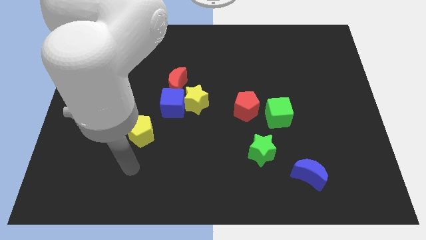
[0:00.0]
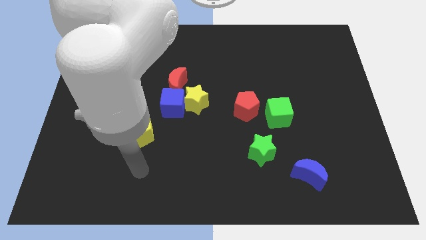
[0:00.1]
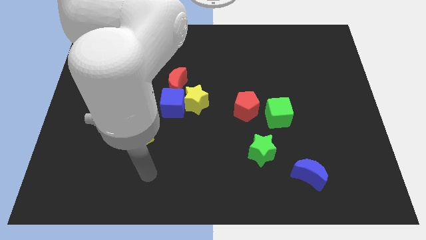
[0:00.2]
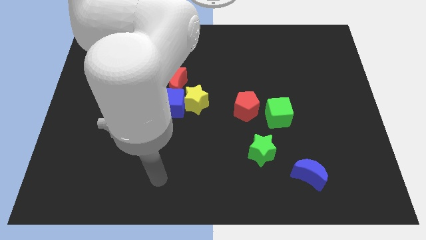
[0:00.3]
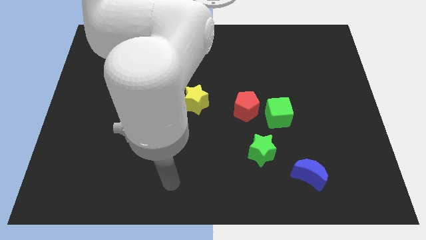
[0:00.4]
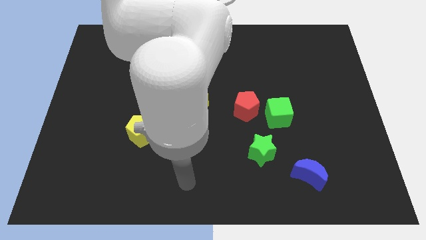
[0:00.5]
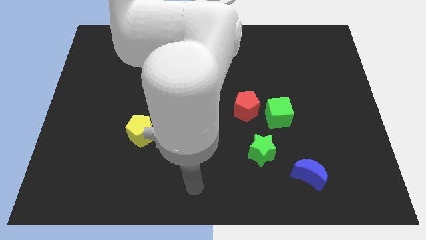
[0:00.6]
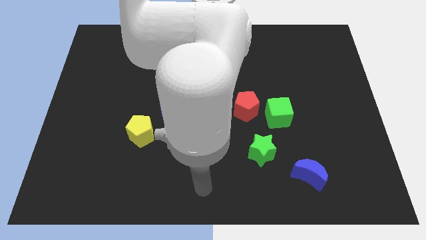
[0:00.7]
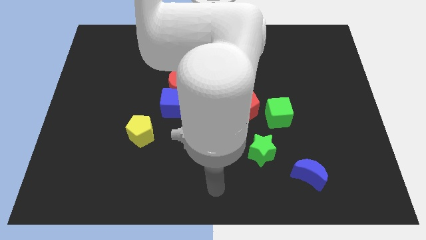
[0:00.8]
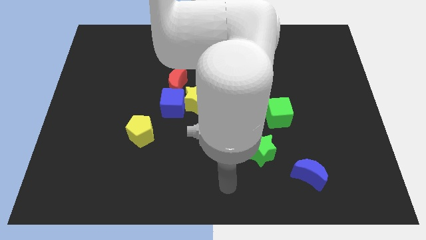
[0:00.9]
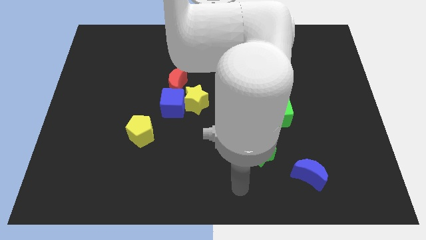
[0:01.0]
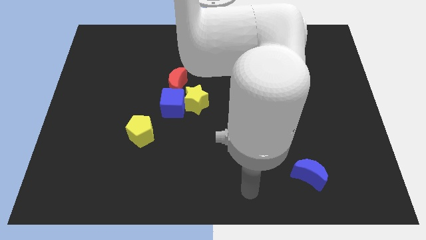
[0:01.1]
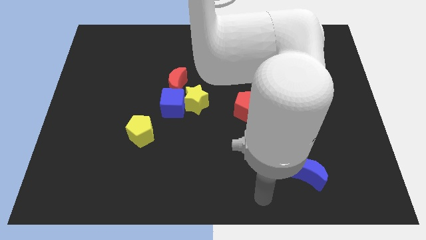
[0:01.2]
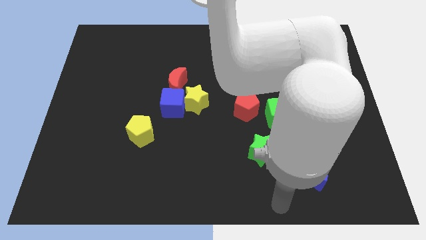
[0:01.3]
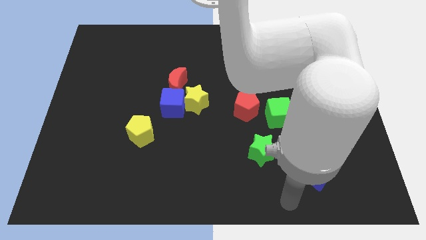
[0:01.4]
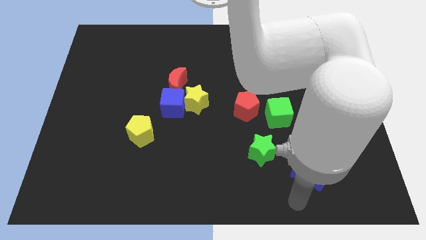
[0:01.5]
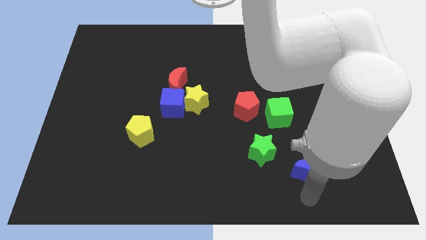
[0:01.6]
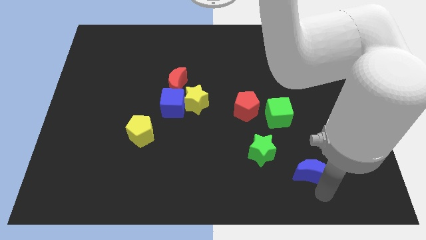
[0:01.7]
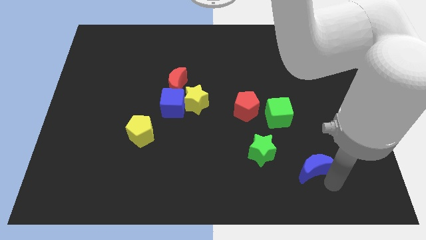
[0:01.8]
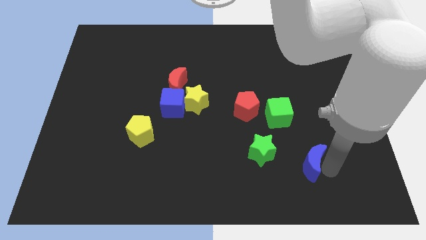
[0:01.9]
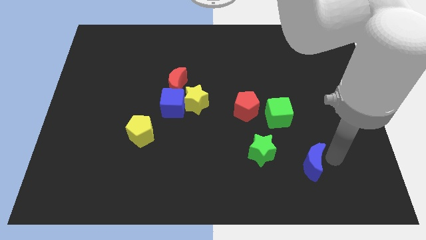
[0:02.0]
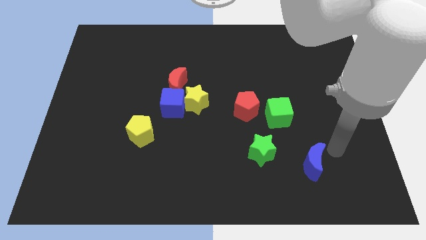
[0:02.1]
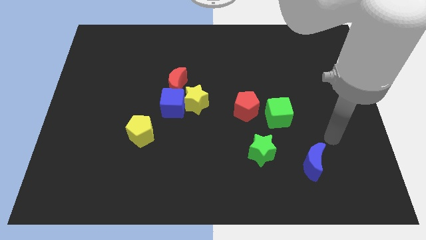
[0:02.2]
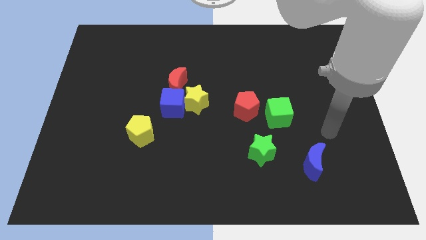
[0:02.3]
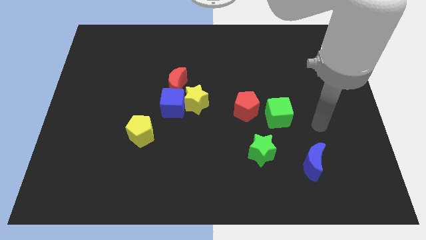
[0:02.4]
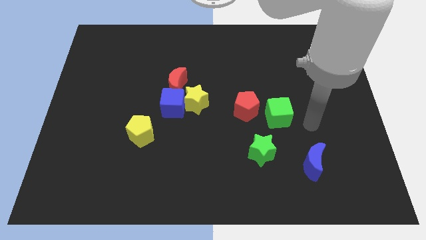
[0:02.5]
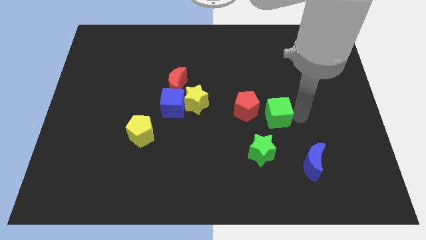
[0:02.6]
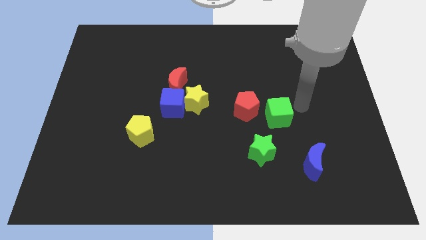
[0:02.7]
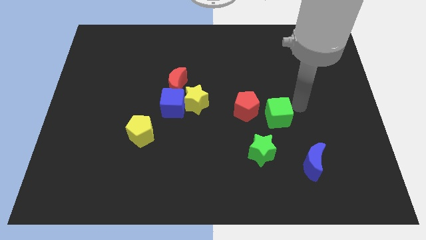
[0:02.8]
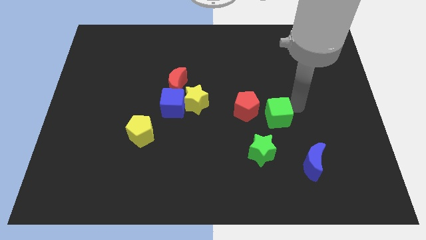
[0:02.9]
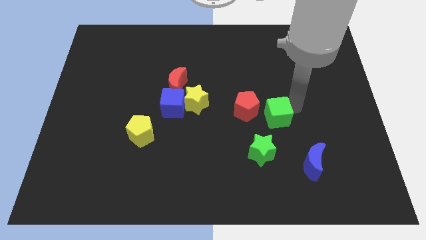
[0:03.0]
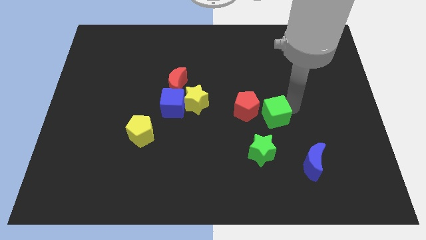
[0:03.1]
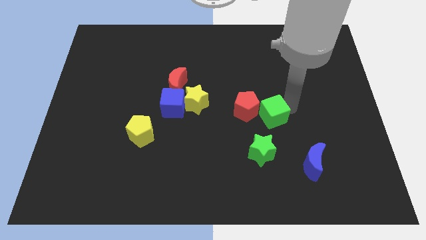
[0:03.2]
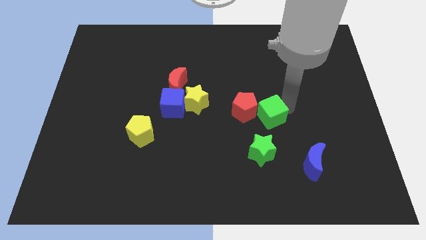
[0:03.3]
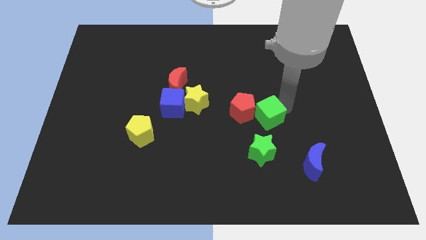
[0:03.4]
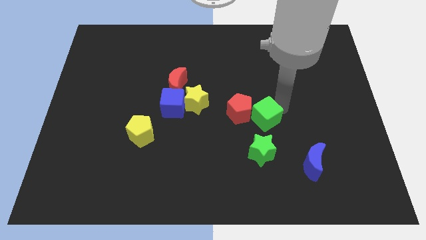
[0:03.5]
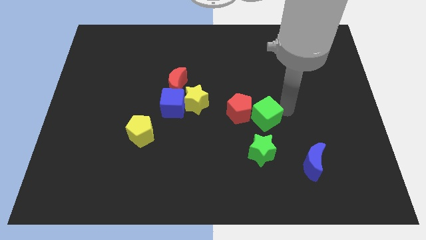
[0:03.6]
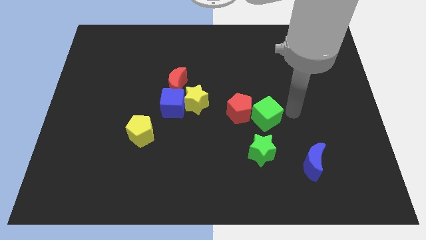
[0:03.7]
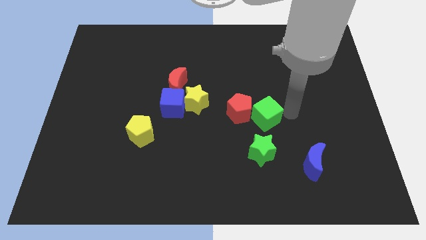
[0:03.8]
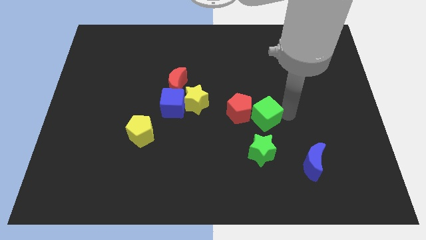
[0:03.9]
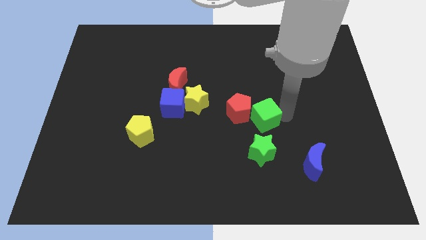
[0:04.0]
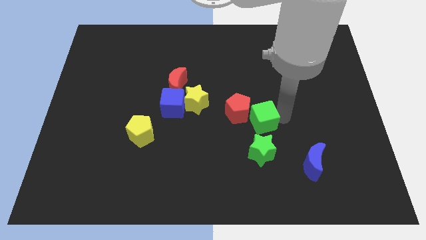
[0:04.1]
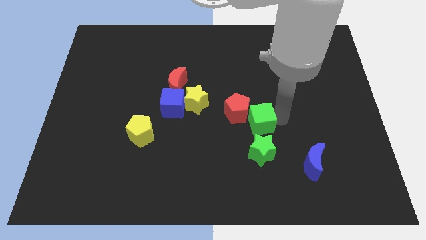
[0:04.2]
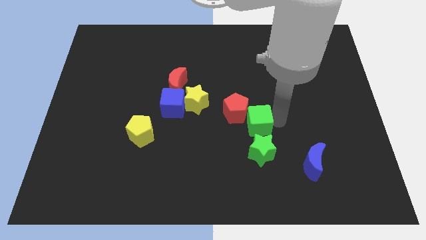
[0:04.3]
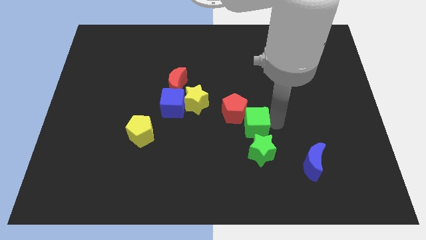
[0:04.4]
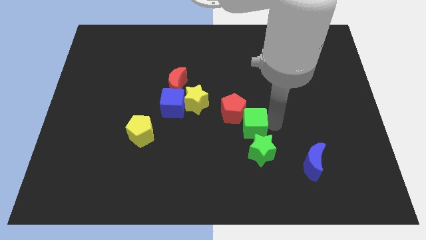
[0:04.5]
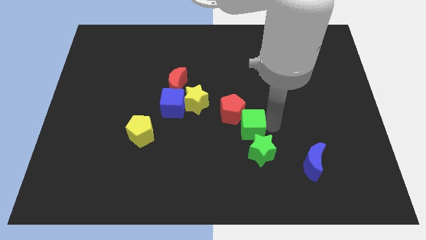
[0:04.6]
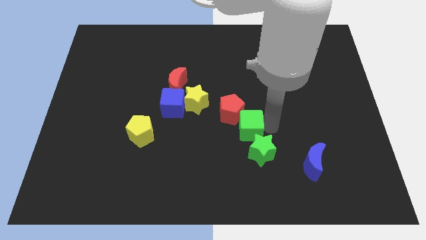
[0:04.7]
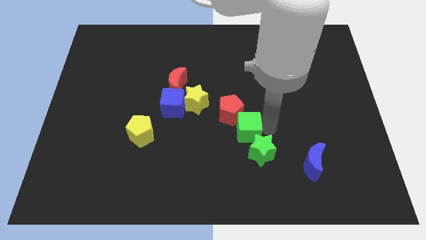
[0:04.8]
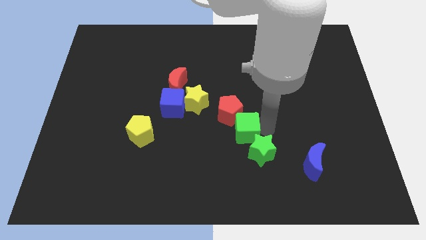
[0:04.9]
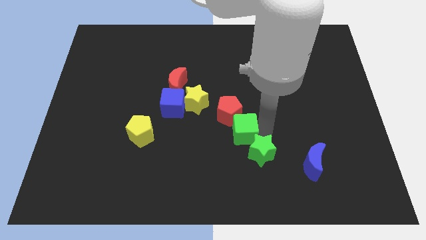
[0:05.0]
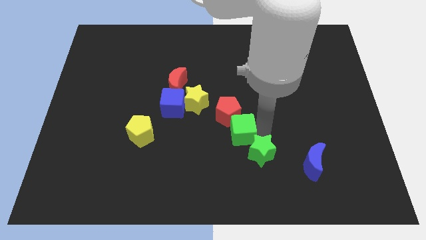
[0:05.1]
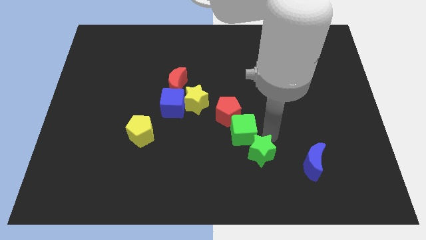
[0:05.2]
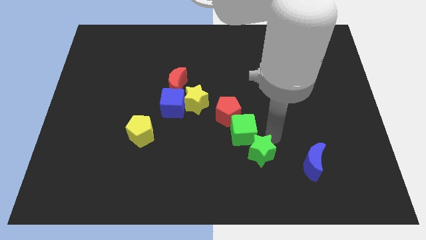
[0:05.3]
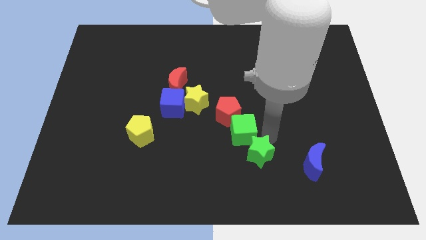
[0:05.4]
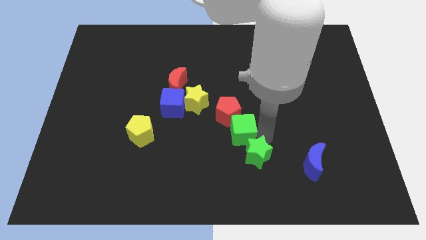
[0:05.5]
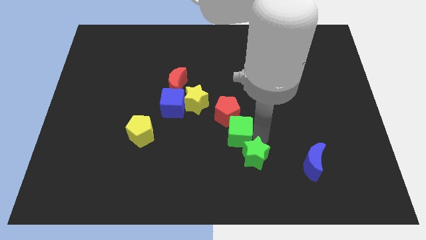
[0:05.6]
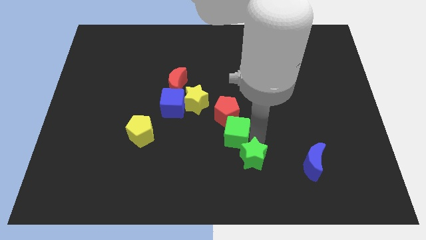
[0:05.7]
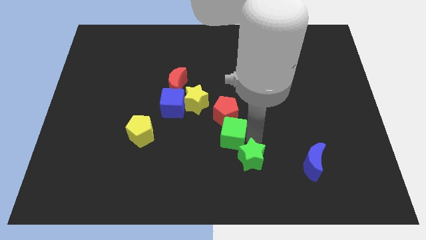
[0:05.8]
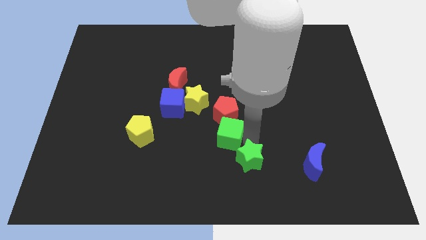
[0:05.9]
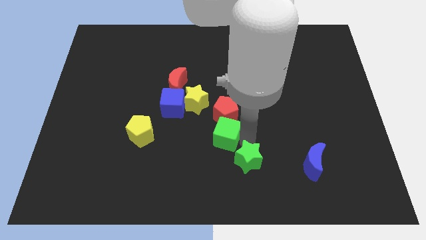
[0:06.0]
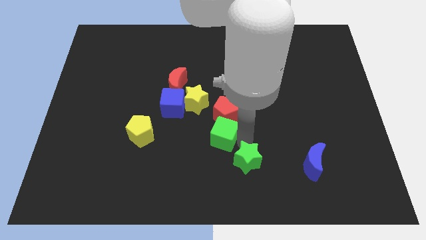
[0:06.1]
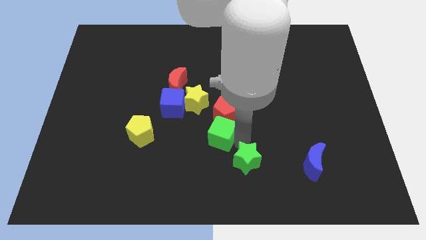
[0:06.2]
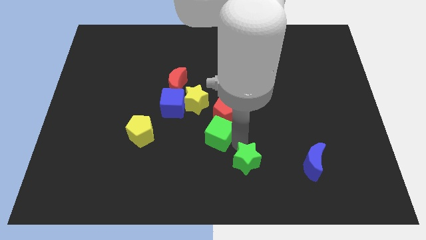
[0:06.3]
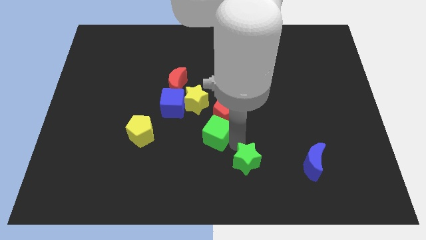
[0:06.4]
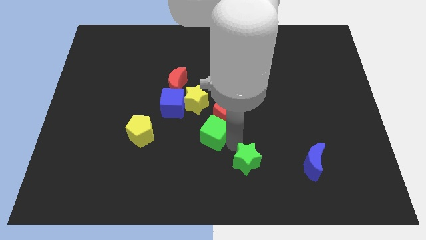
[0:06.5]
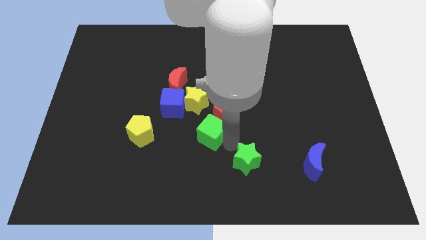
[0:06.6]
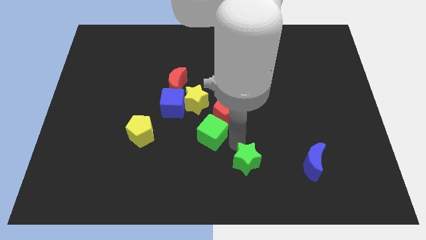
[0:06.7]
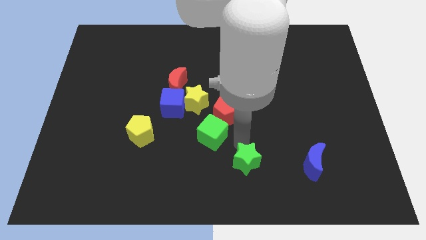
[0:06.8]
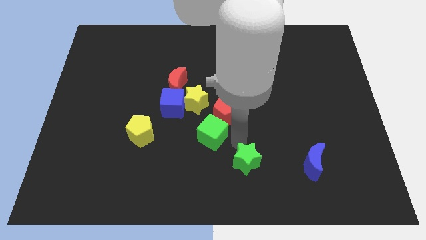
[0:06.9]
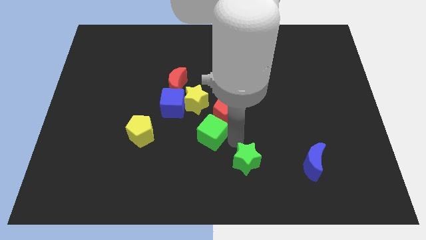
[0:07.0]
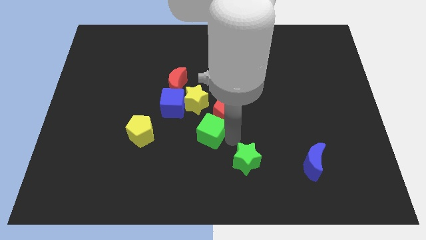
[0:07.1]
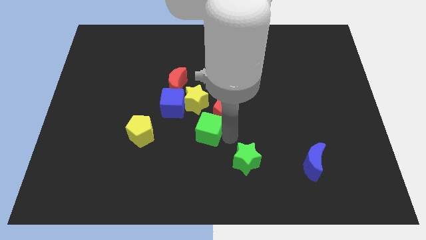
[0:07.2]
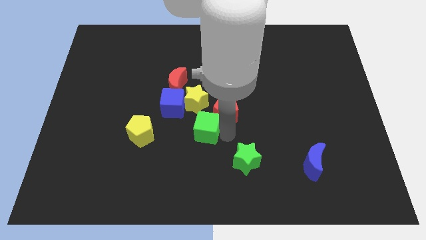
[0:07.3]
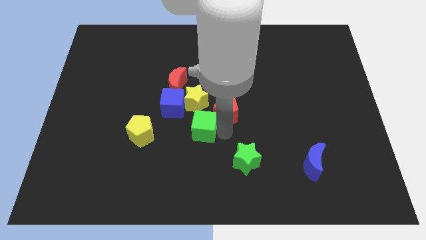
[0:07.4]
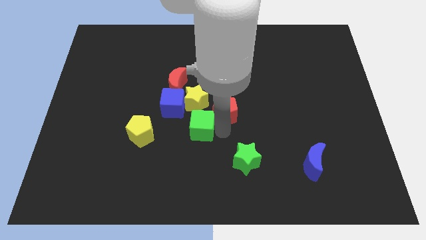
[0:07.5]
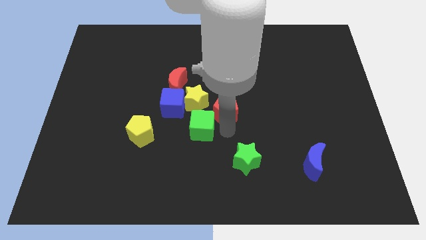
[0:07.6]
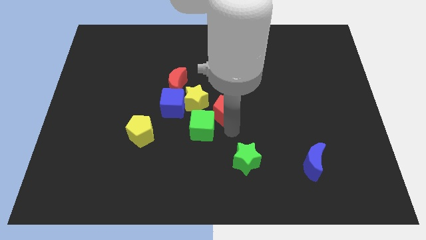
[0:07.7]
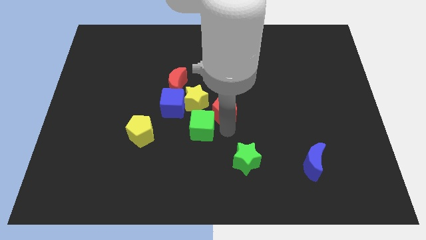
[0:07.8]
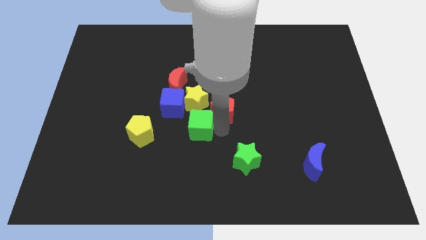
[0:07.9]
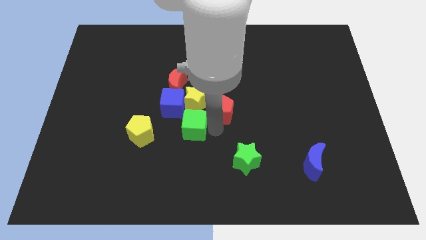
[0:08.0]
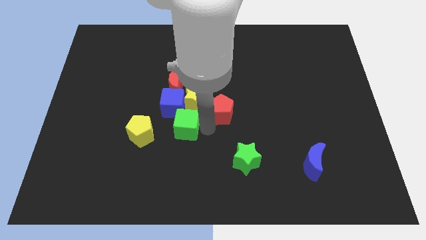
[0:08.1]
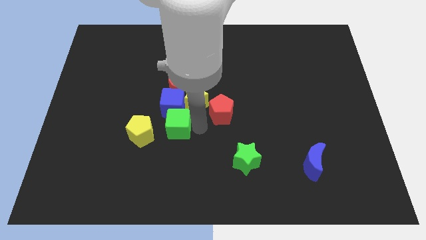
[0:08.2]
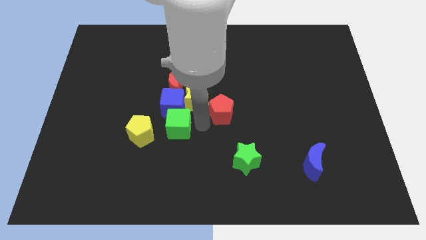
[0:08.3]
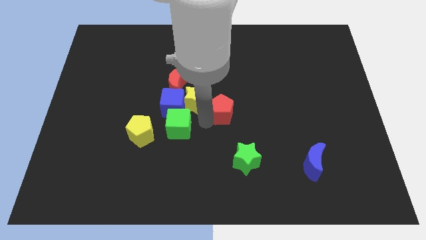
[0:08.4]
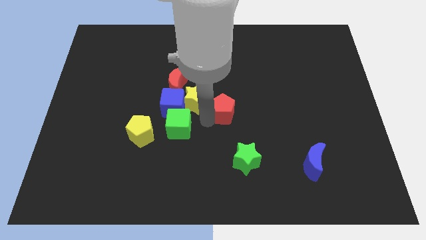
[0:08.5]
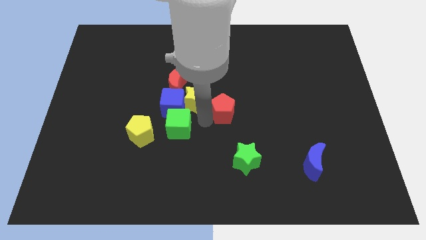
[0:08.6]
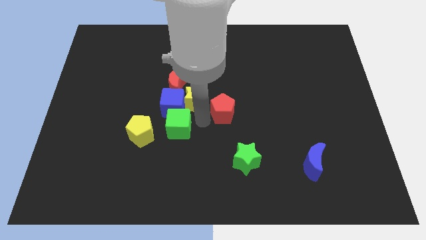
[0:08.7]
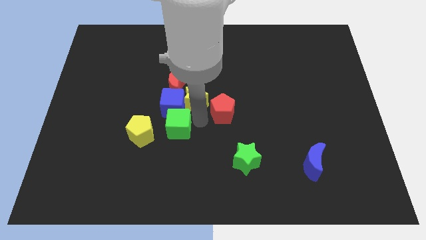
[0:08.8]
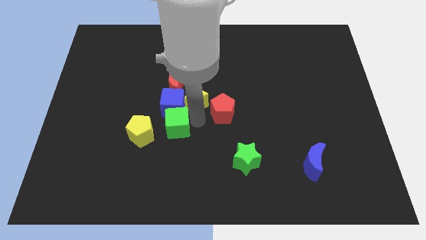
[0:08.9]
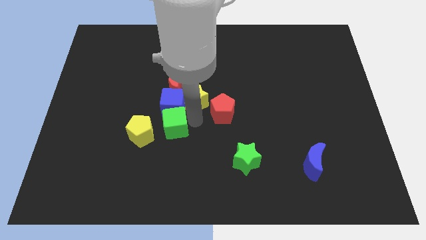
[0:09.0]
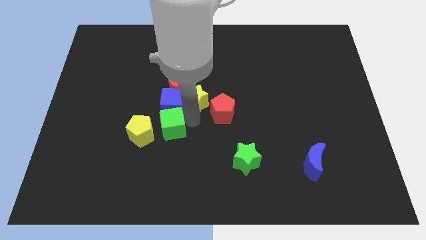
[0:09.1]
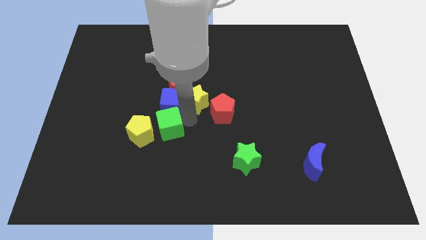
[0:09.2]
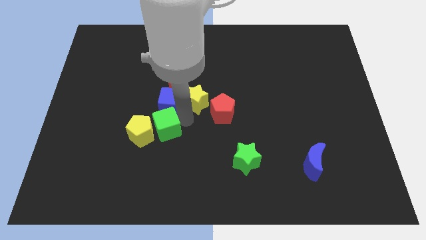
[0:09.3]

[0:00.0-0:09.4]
push the green cube towards the yellow pentagon
